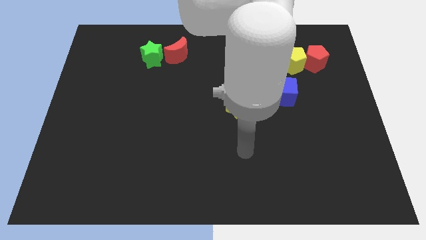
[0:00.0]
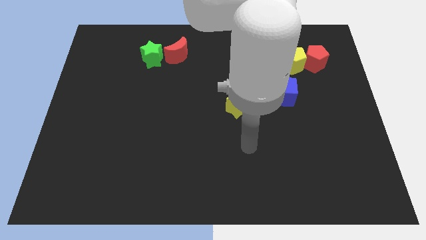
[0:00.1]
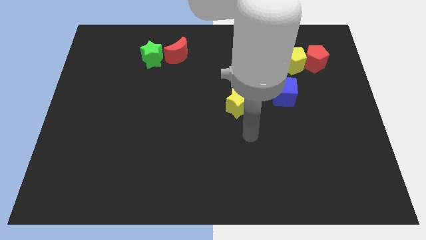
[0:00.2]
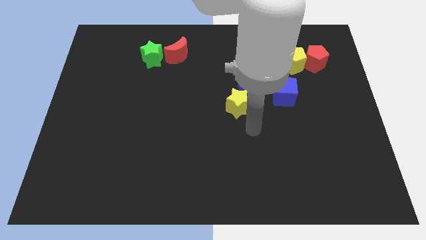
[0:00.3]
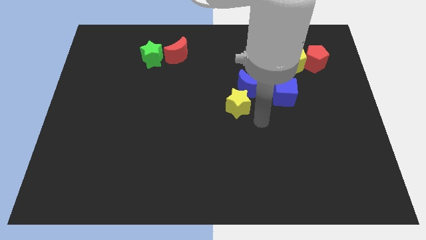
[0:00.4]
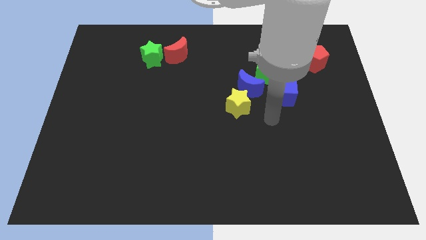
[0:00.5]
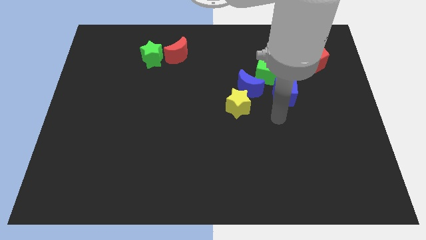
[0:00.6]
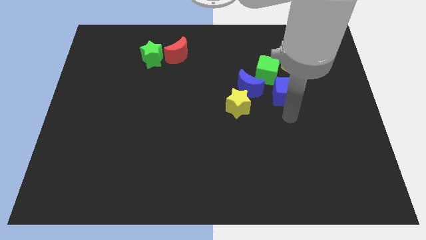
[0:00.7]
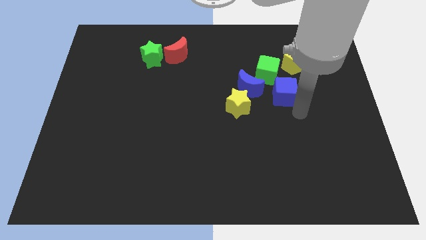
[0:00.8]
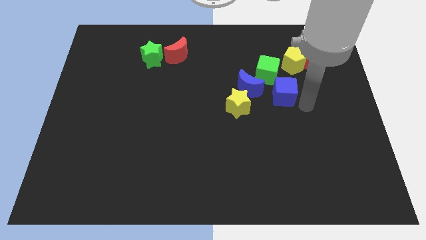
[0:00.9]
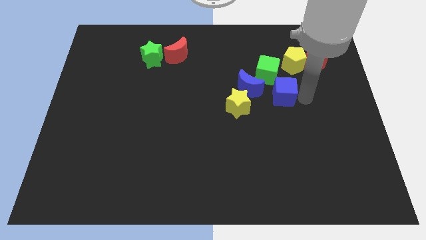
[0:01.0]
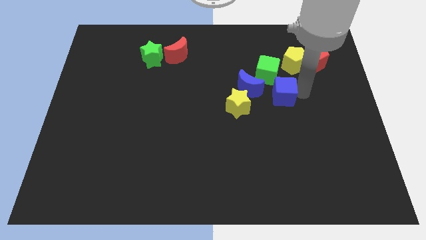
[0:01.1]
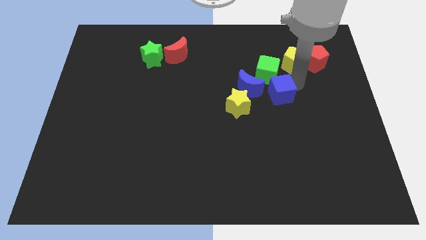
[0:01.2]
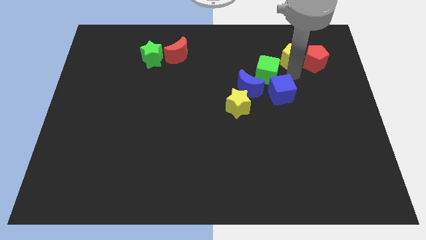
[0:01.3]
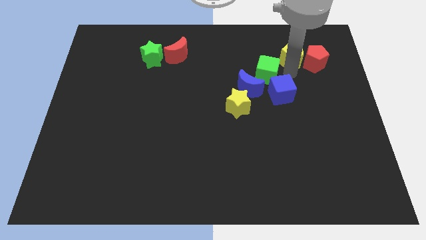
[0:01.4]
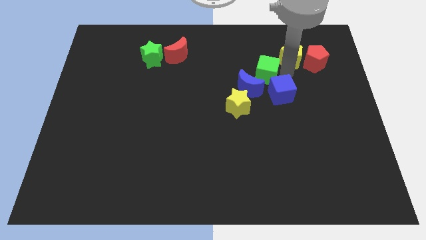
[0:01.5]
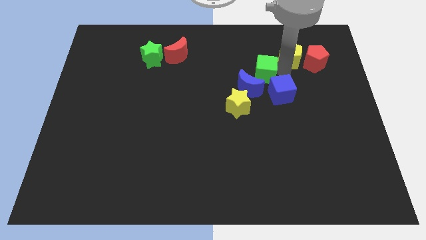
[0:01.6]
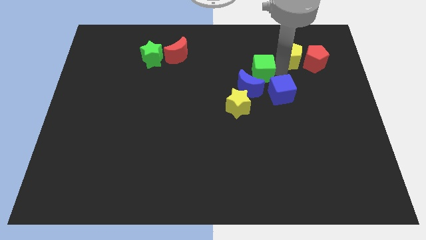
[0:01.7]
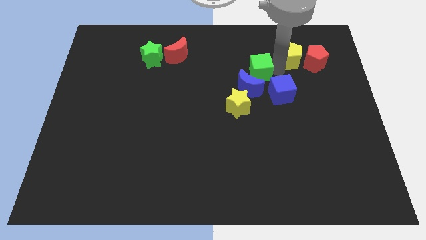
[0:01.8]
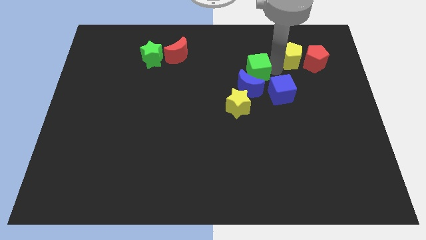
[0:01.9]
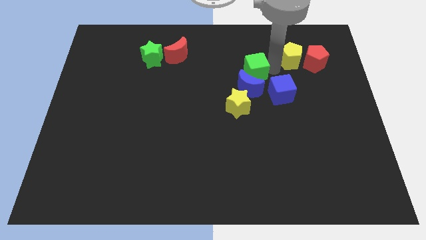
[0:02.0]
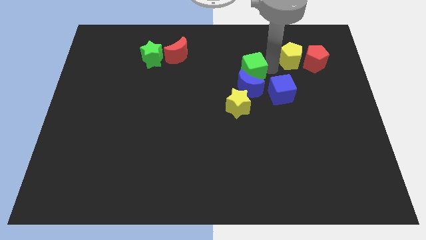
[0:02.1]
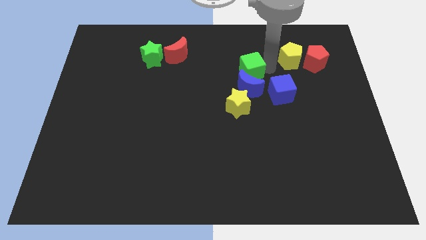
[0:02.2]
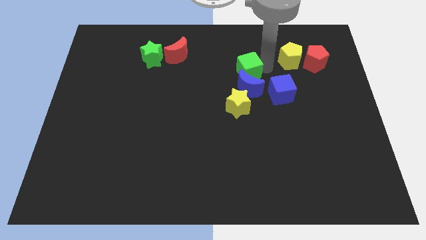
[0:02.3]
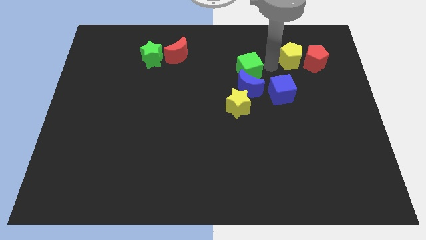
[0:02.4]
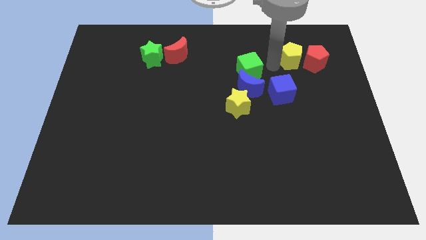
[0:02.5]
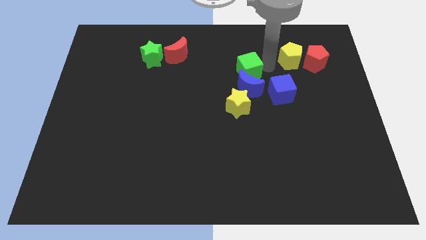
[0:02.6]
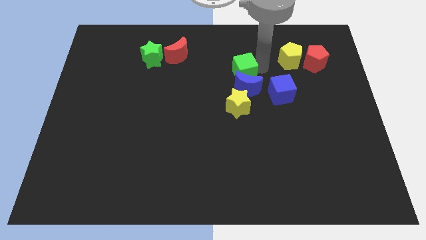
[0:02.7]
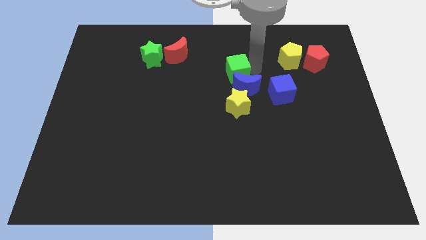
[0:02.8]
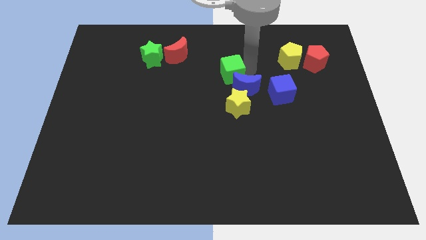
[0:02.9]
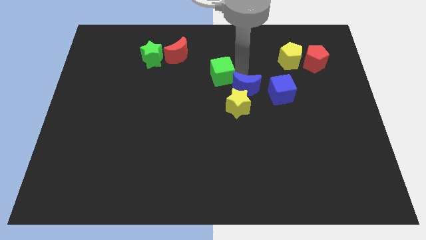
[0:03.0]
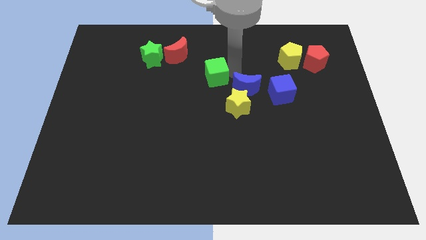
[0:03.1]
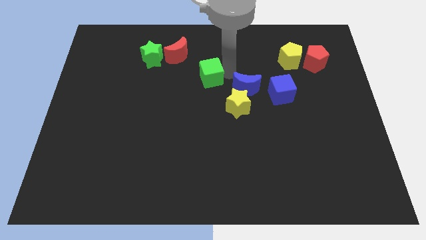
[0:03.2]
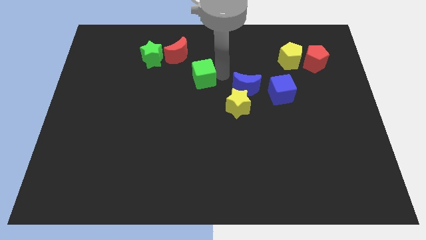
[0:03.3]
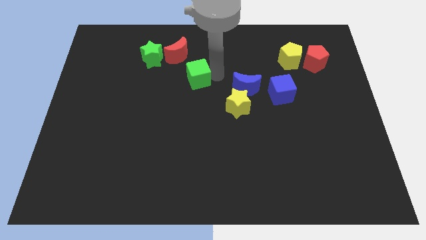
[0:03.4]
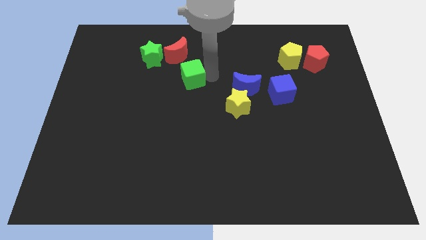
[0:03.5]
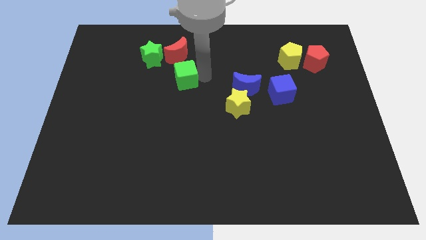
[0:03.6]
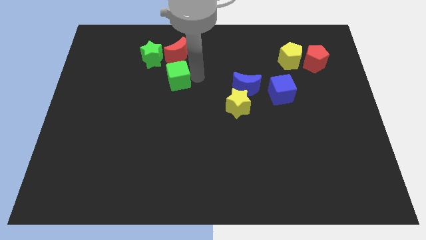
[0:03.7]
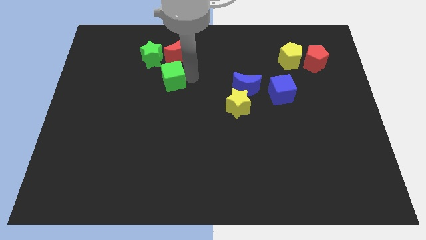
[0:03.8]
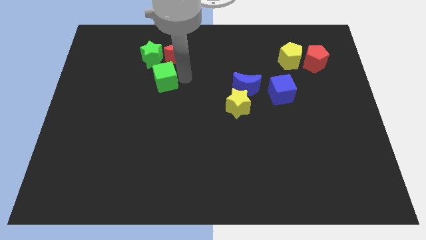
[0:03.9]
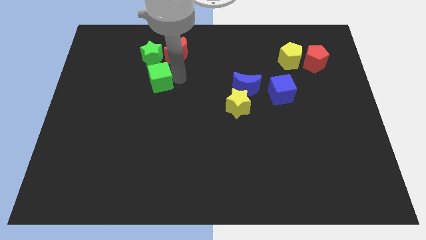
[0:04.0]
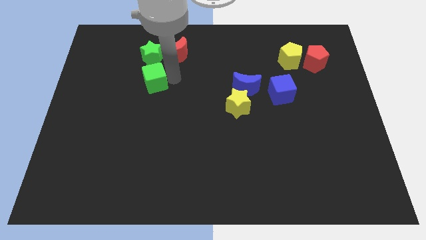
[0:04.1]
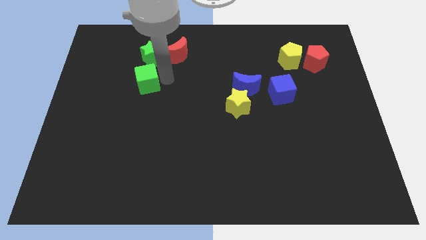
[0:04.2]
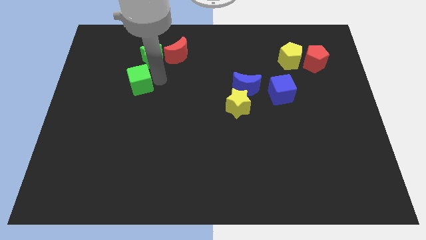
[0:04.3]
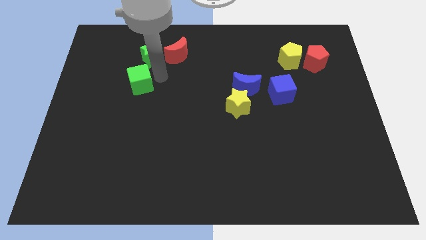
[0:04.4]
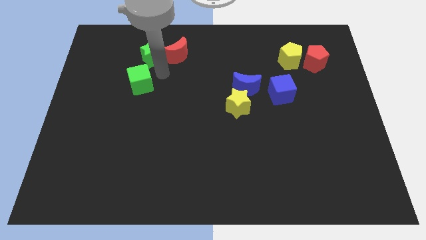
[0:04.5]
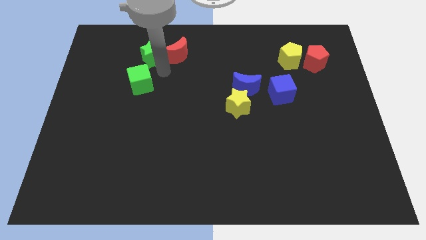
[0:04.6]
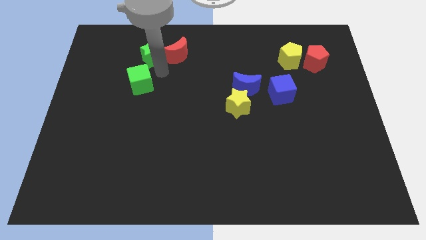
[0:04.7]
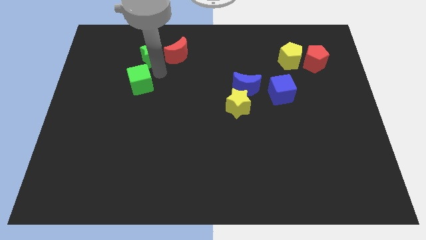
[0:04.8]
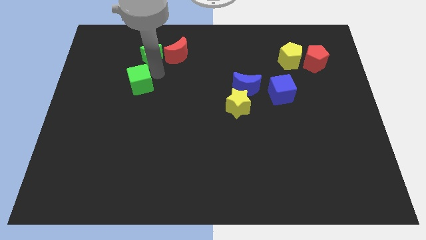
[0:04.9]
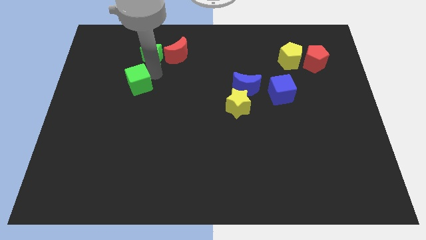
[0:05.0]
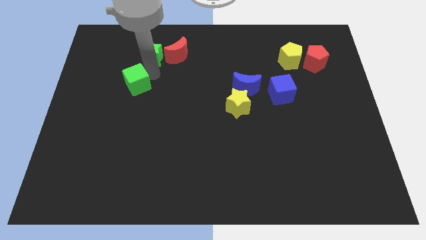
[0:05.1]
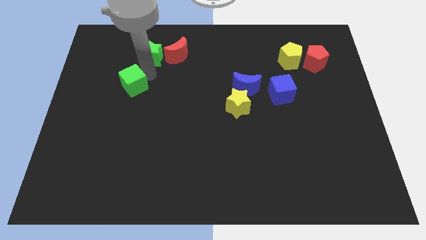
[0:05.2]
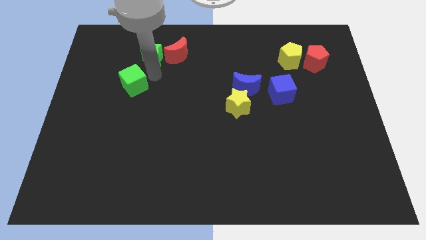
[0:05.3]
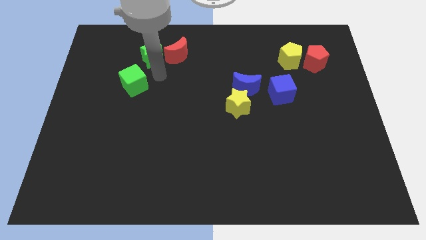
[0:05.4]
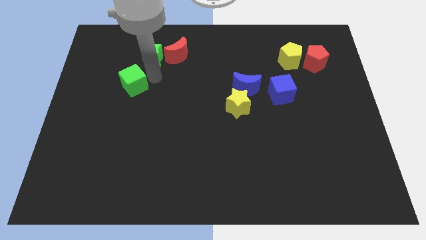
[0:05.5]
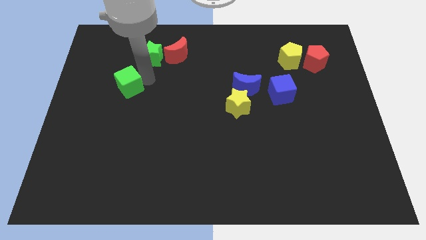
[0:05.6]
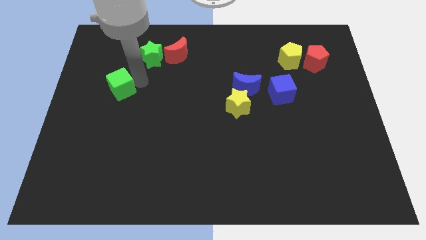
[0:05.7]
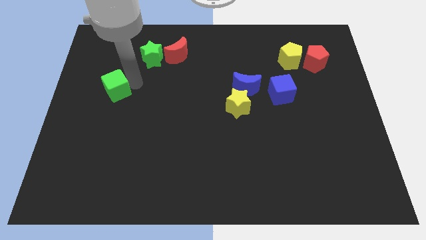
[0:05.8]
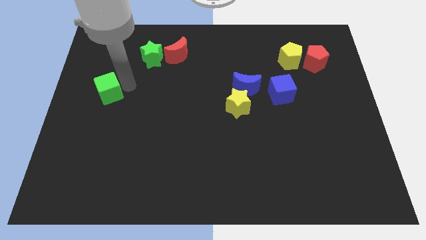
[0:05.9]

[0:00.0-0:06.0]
slide the green cube to the center left
